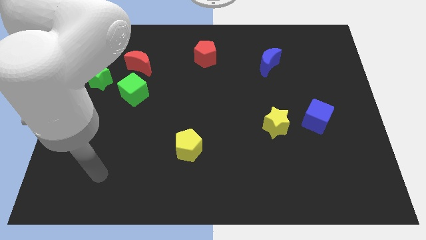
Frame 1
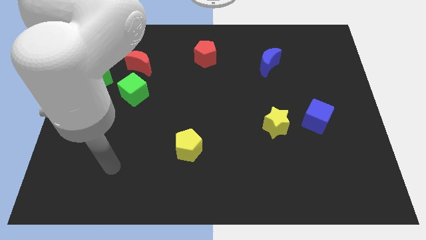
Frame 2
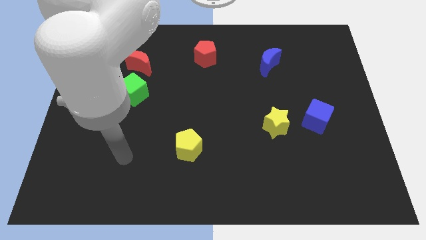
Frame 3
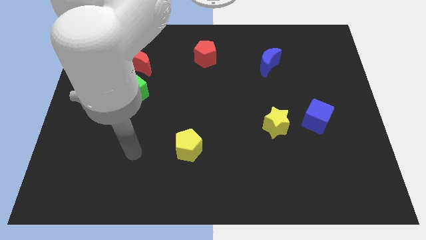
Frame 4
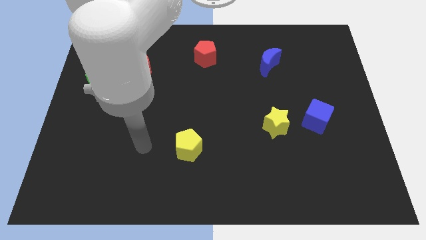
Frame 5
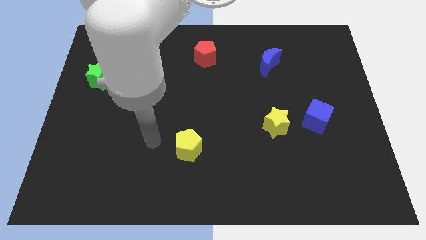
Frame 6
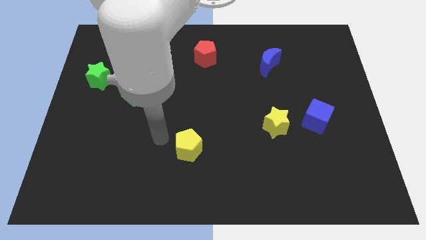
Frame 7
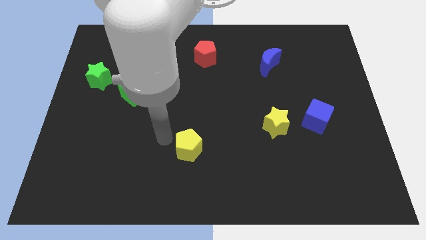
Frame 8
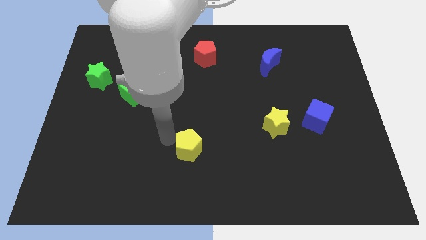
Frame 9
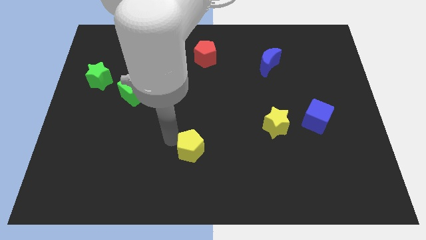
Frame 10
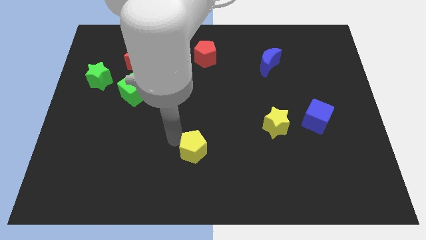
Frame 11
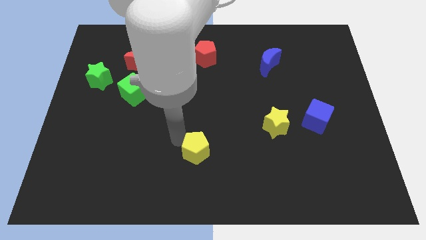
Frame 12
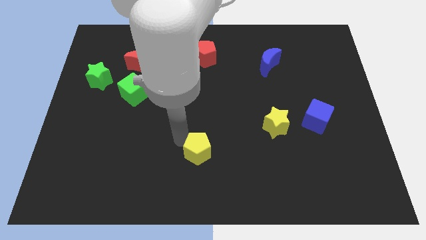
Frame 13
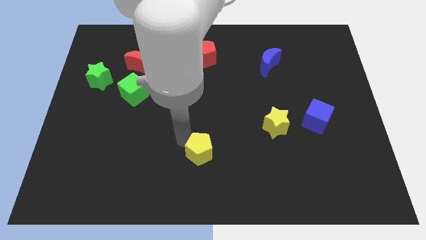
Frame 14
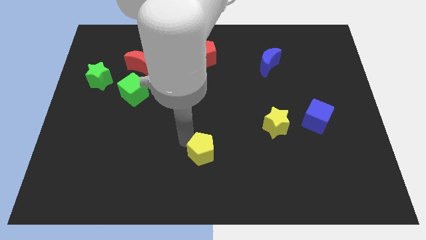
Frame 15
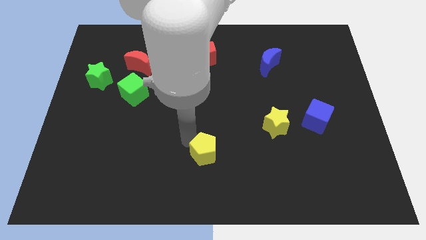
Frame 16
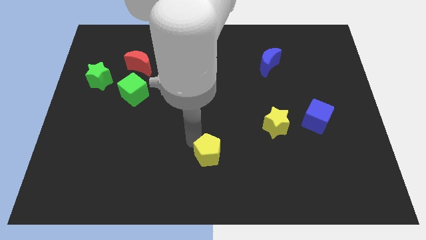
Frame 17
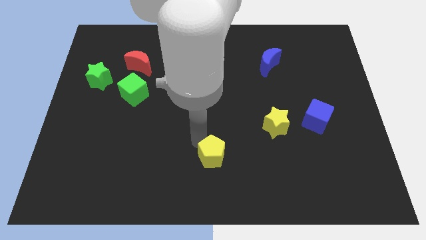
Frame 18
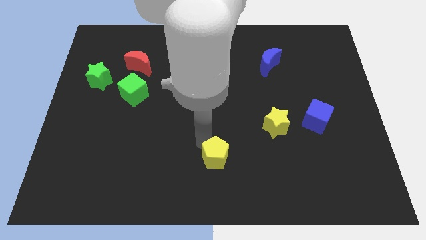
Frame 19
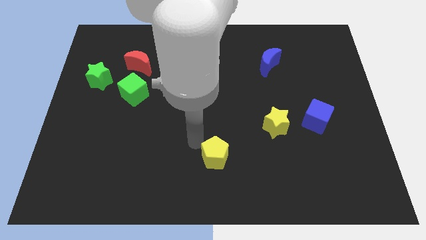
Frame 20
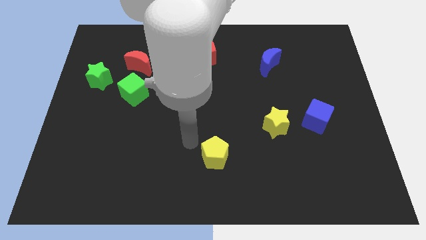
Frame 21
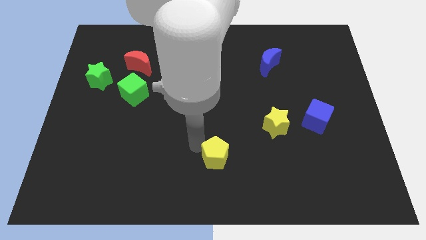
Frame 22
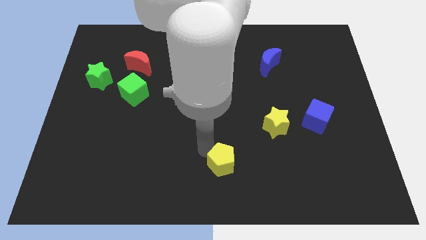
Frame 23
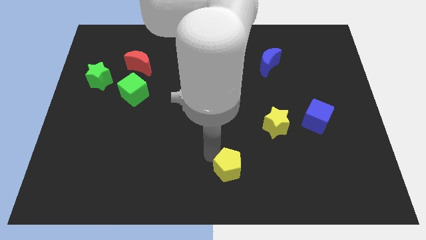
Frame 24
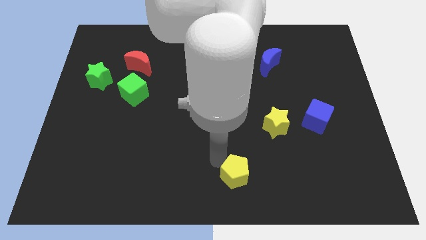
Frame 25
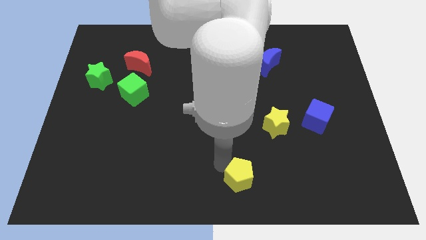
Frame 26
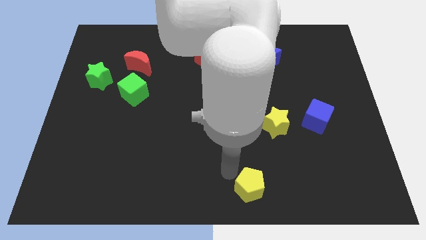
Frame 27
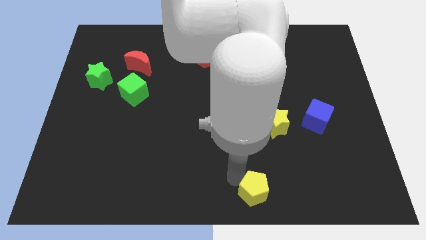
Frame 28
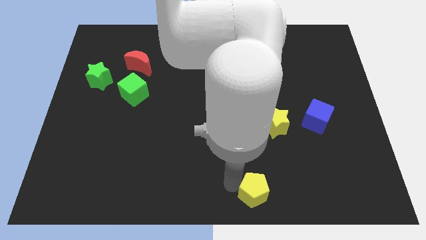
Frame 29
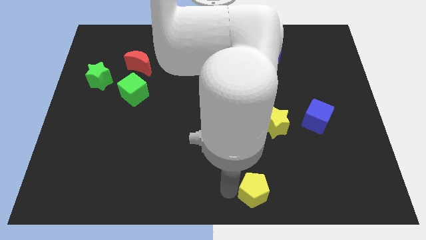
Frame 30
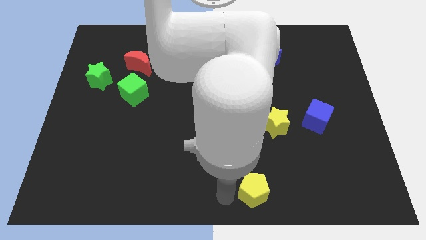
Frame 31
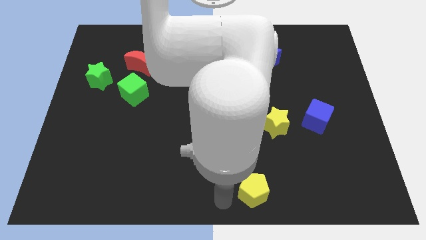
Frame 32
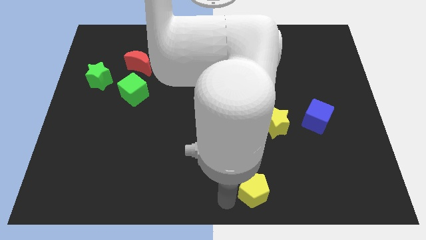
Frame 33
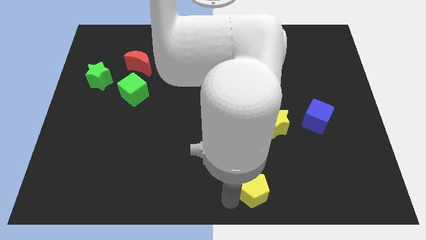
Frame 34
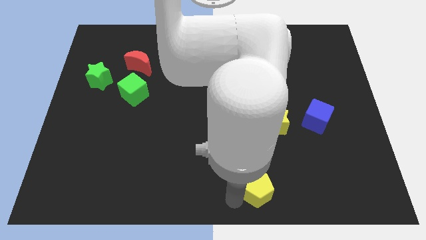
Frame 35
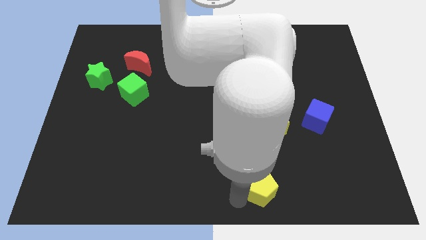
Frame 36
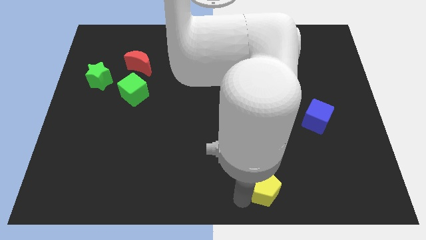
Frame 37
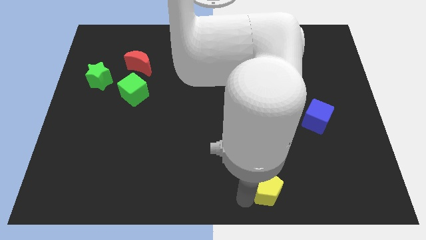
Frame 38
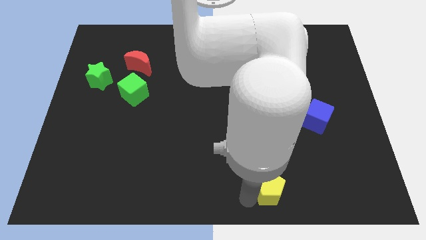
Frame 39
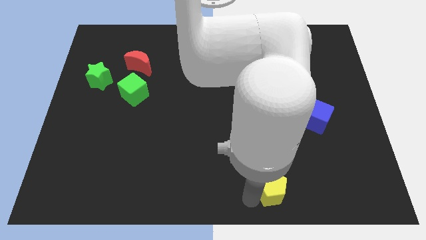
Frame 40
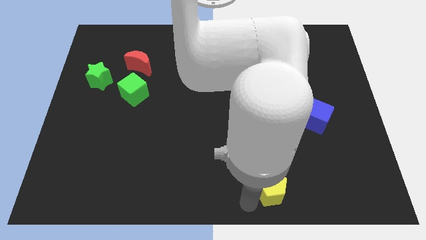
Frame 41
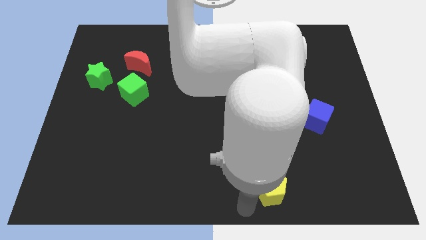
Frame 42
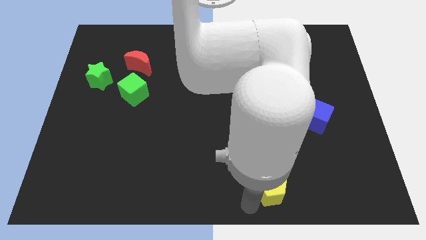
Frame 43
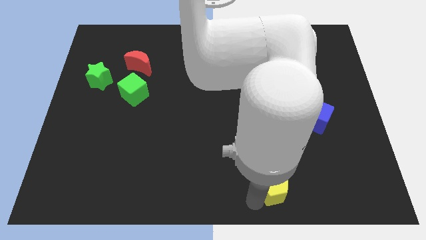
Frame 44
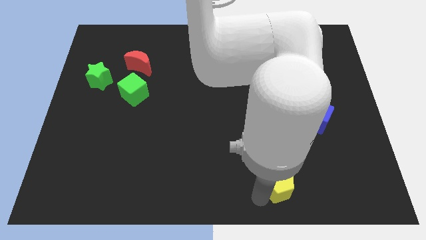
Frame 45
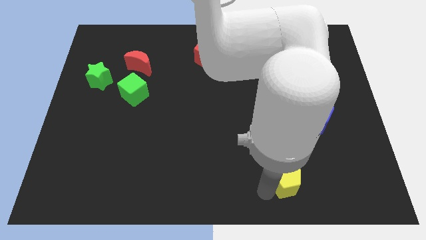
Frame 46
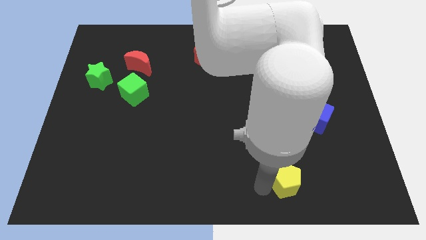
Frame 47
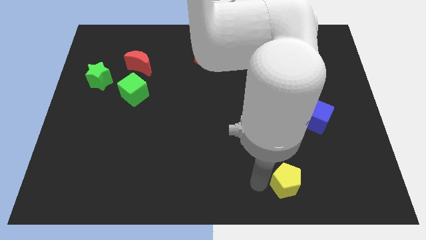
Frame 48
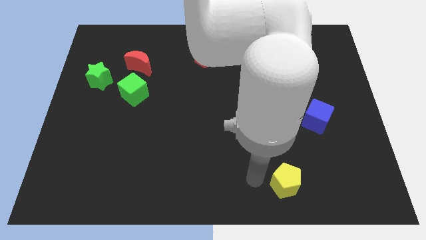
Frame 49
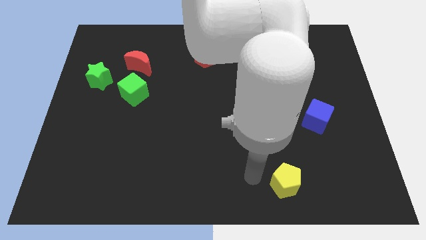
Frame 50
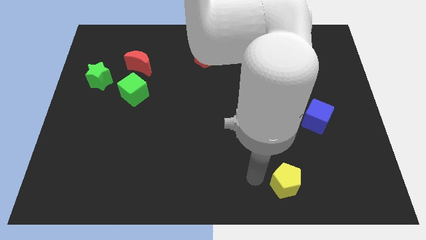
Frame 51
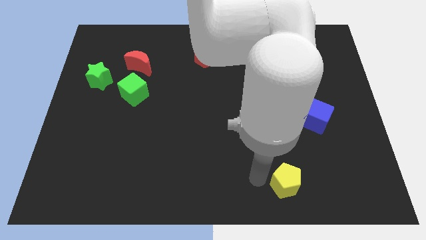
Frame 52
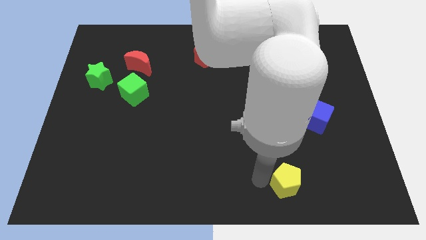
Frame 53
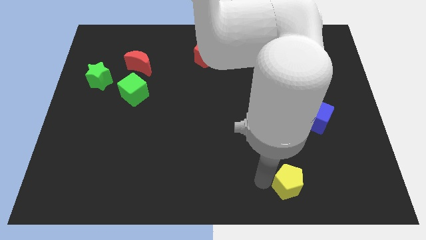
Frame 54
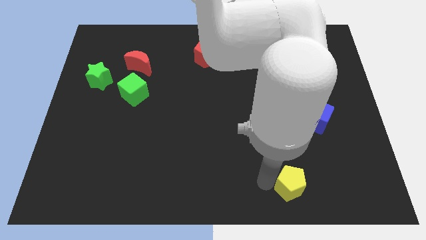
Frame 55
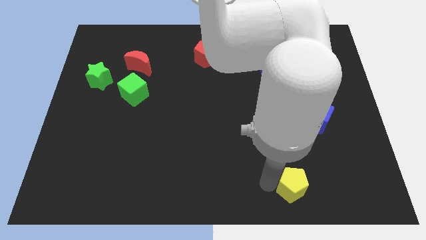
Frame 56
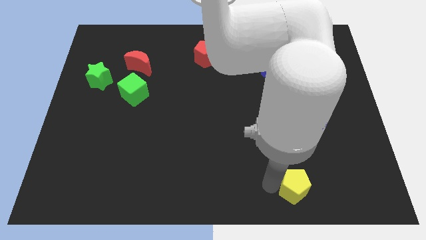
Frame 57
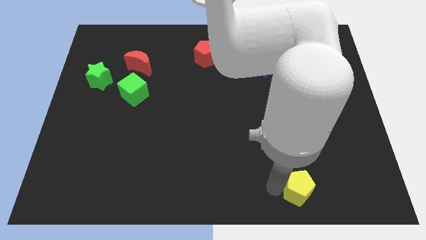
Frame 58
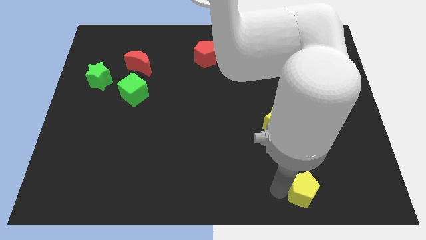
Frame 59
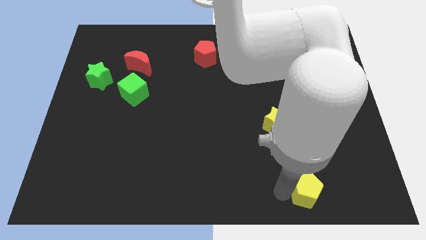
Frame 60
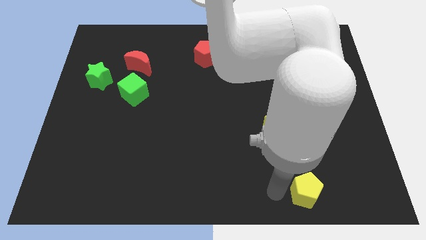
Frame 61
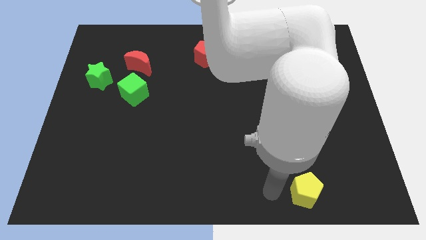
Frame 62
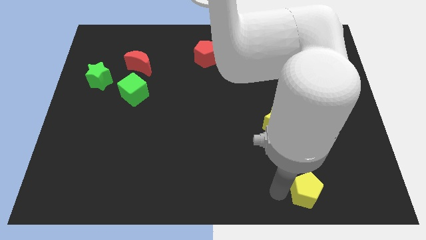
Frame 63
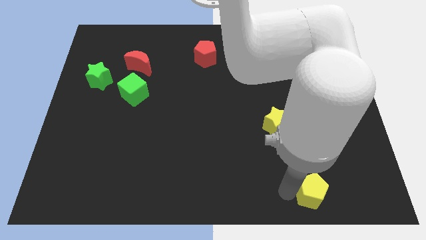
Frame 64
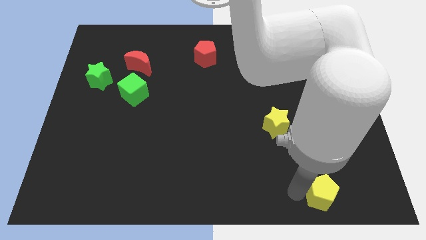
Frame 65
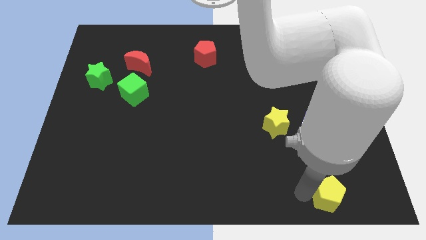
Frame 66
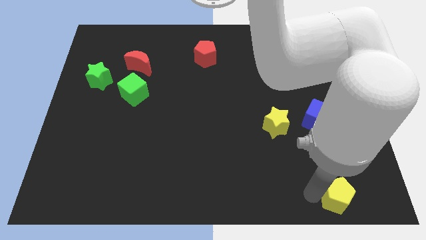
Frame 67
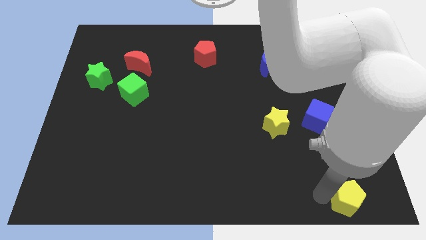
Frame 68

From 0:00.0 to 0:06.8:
push the yellow pentagon to the bottom right

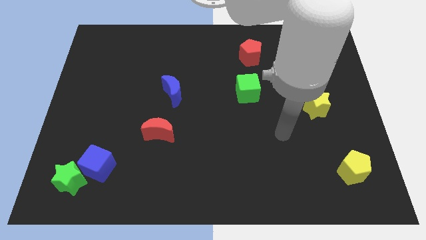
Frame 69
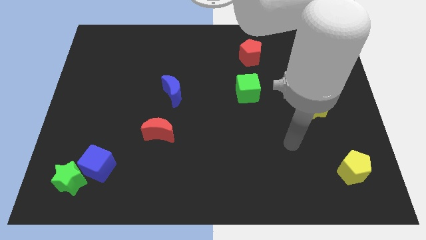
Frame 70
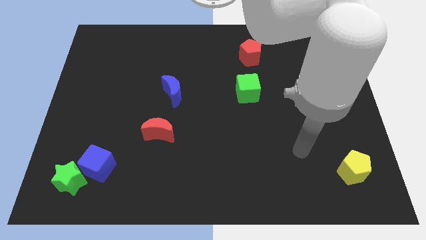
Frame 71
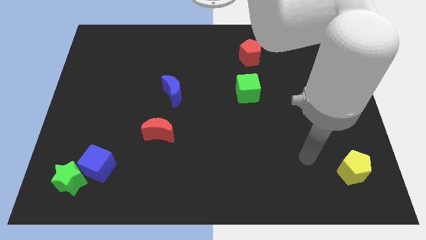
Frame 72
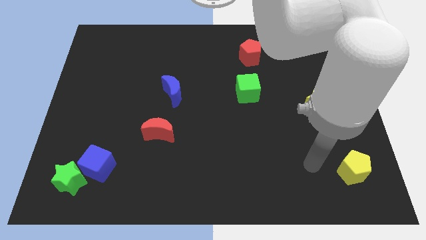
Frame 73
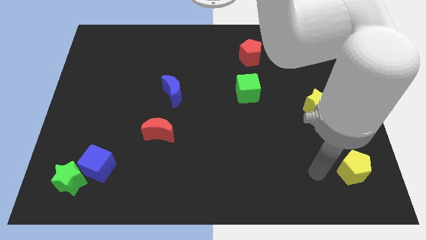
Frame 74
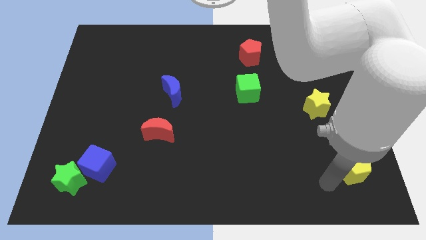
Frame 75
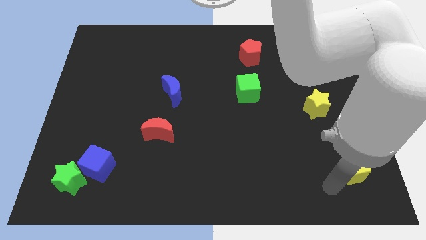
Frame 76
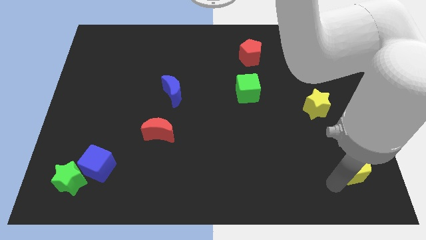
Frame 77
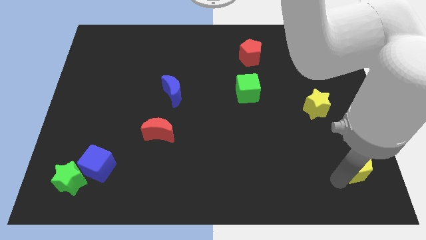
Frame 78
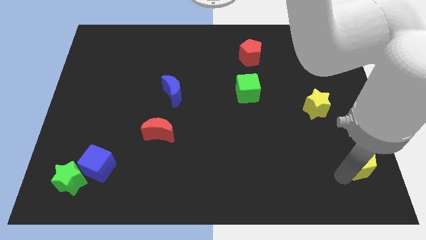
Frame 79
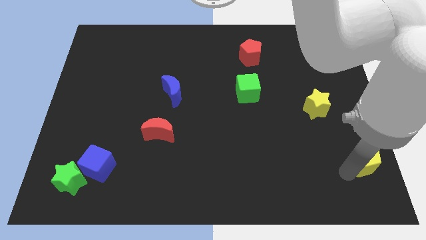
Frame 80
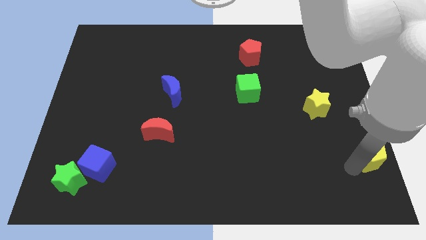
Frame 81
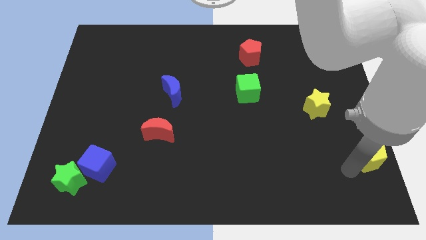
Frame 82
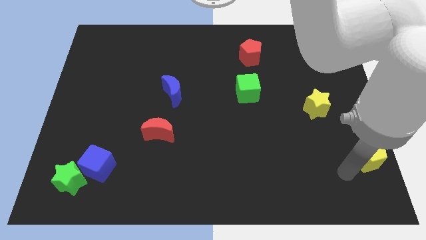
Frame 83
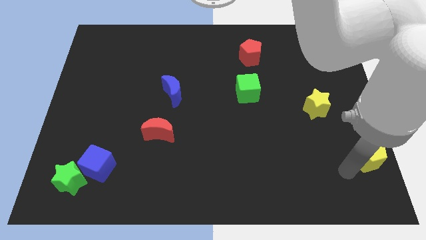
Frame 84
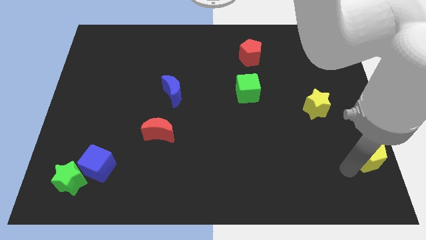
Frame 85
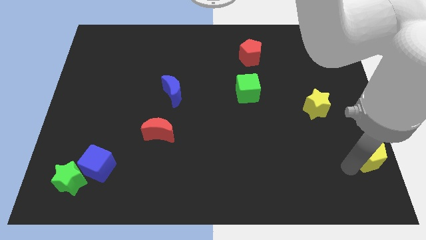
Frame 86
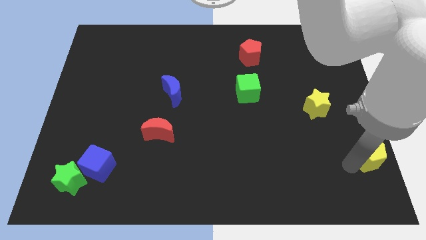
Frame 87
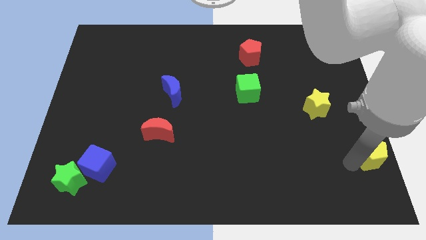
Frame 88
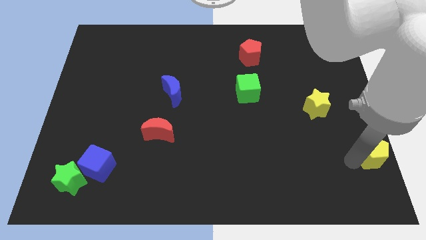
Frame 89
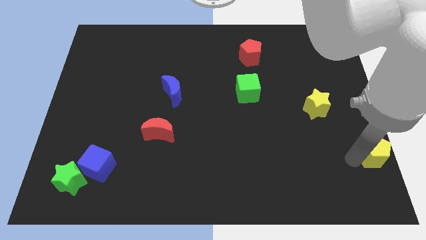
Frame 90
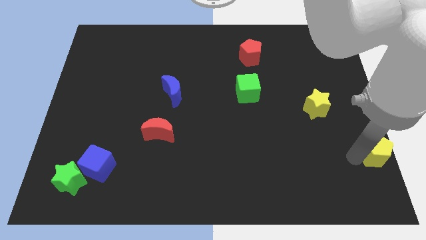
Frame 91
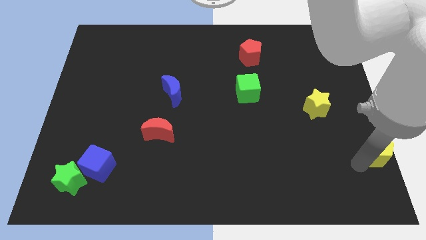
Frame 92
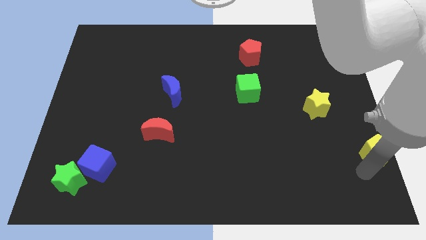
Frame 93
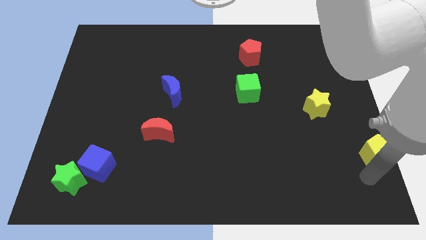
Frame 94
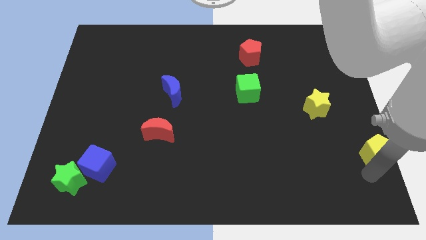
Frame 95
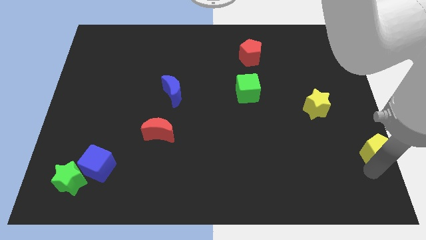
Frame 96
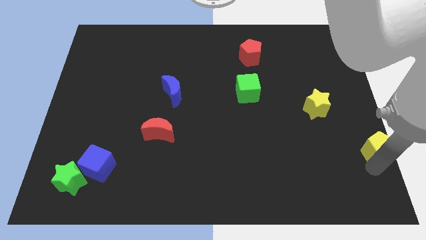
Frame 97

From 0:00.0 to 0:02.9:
move the yellow pentagon to the right side of the board
